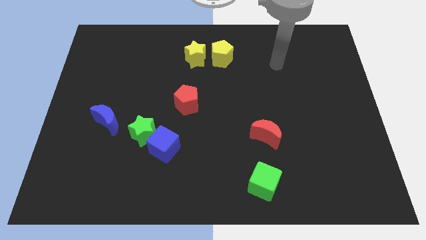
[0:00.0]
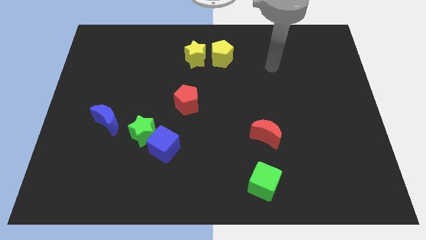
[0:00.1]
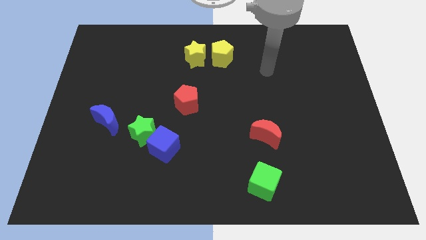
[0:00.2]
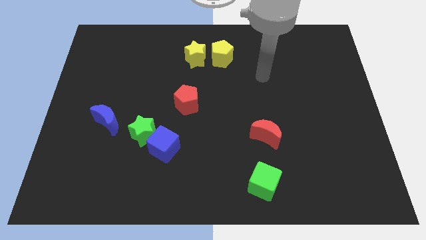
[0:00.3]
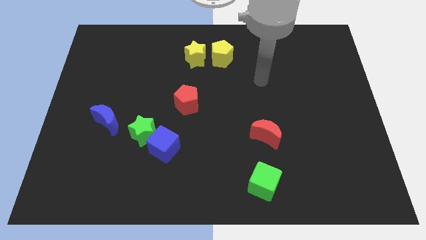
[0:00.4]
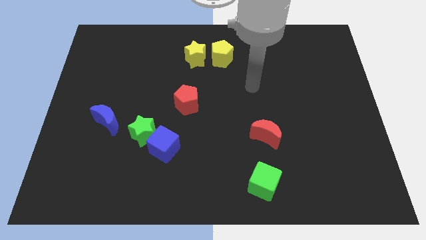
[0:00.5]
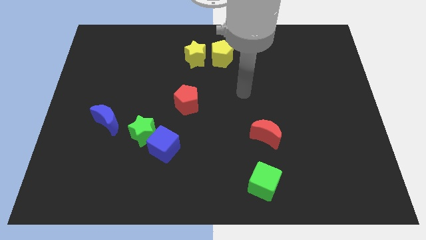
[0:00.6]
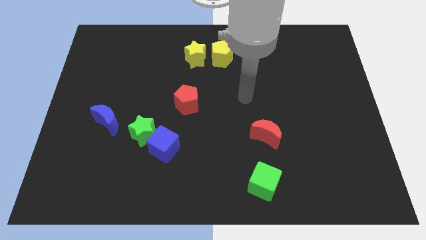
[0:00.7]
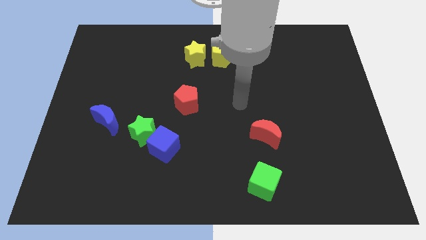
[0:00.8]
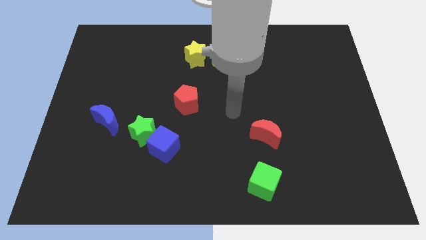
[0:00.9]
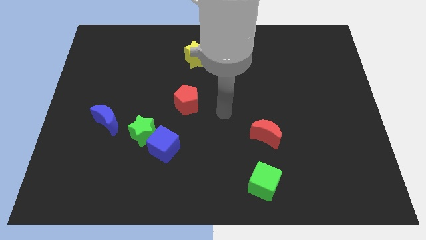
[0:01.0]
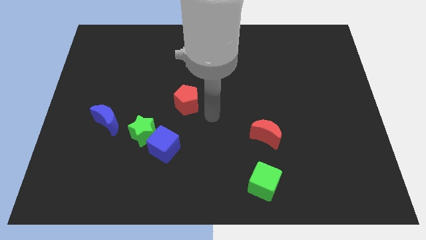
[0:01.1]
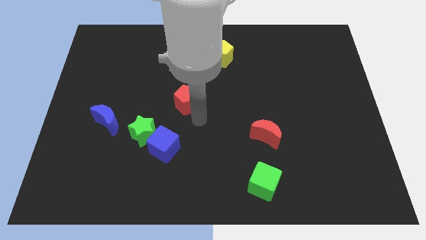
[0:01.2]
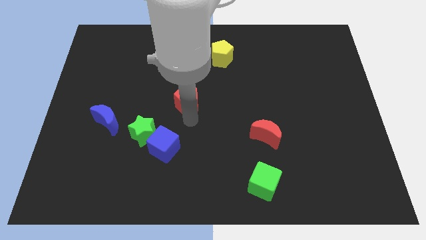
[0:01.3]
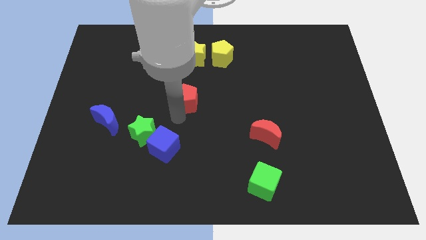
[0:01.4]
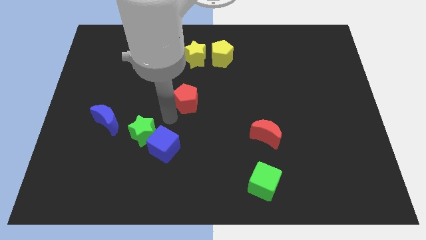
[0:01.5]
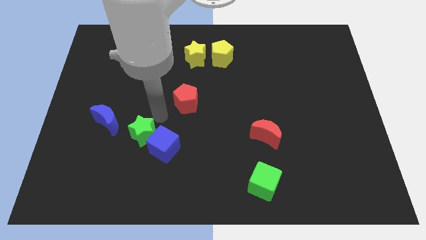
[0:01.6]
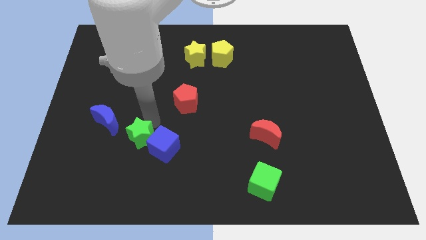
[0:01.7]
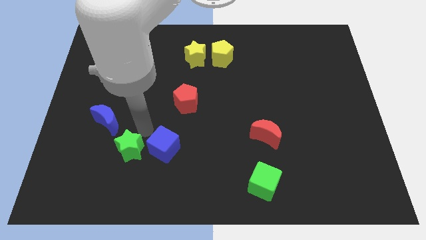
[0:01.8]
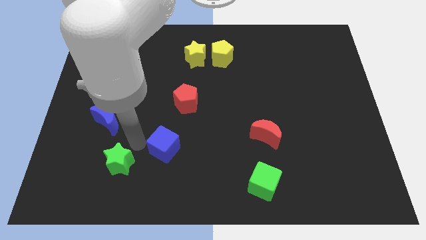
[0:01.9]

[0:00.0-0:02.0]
pull the blue cube apart from the green star

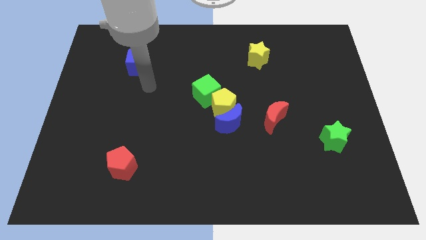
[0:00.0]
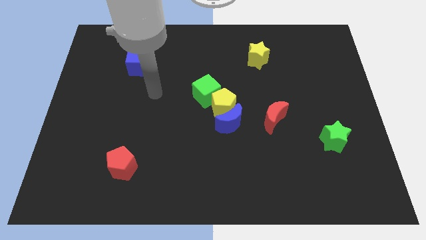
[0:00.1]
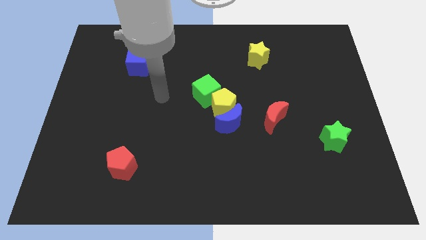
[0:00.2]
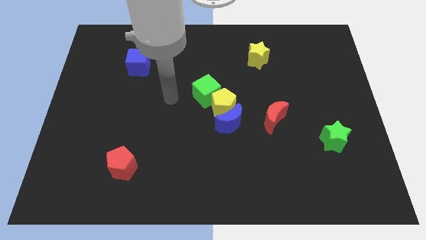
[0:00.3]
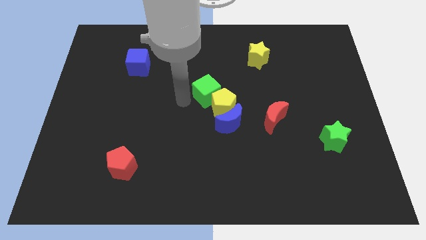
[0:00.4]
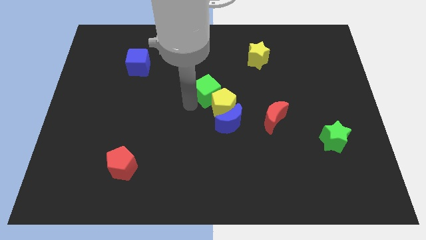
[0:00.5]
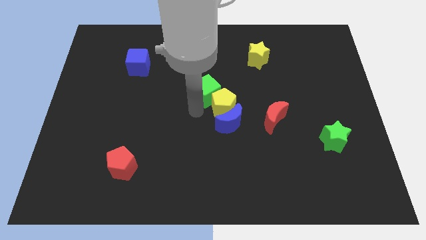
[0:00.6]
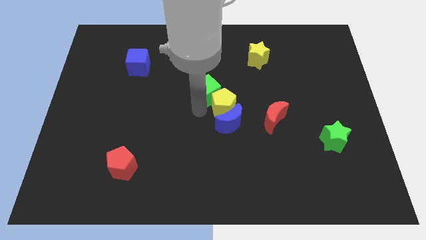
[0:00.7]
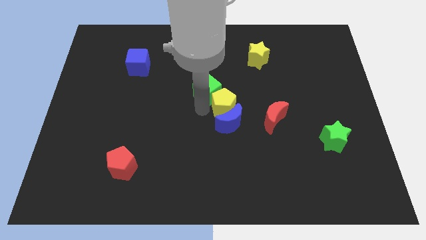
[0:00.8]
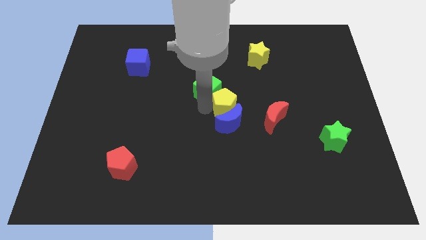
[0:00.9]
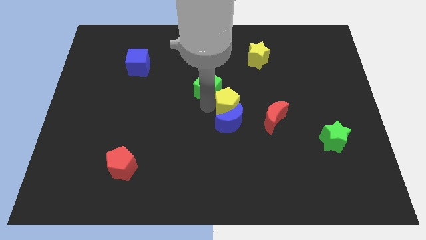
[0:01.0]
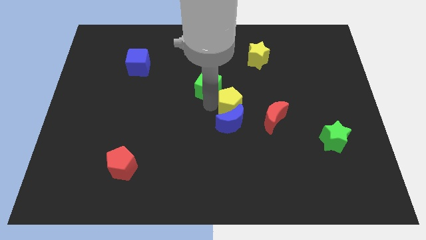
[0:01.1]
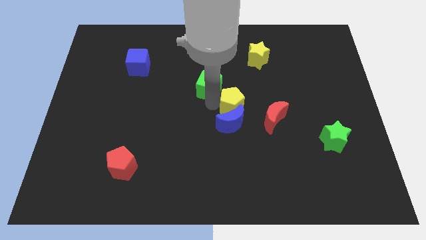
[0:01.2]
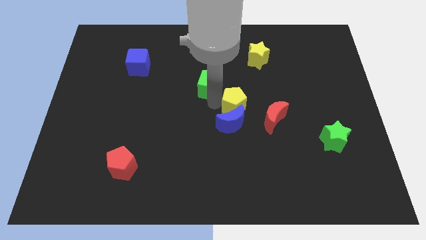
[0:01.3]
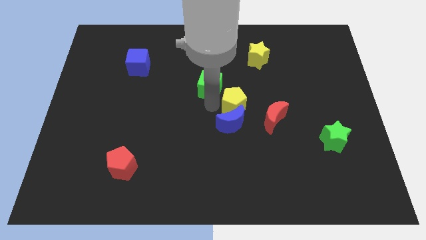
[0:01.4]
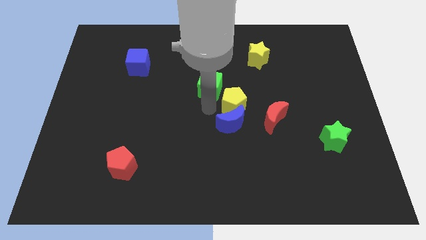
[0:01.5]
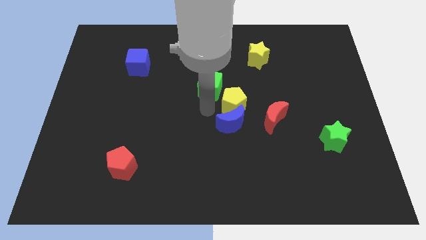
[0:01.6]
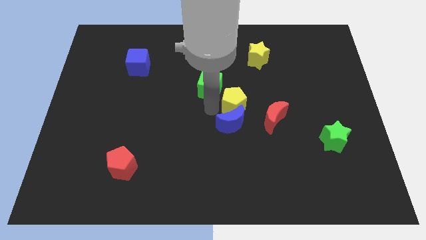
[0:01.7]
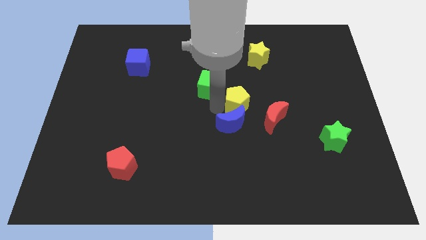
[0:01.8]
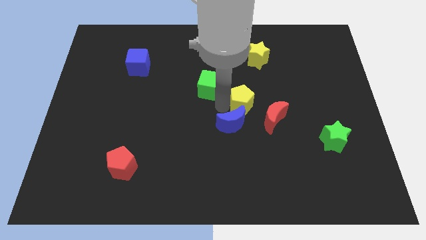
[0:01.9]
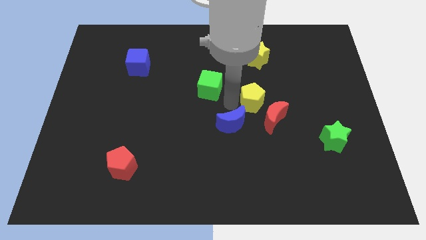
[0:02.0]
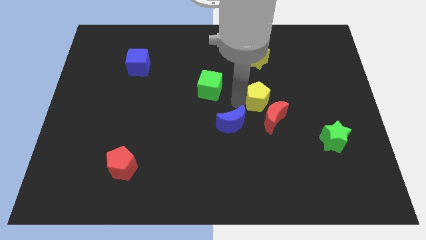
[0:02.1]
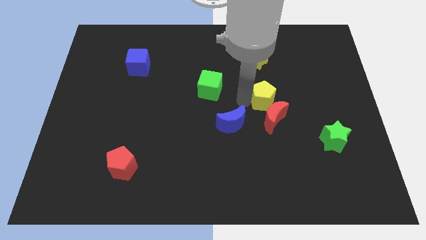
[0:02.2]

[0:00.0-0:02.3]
pull the yellow pentagon apart from the blue moon and green cube

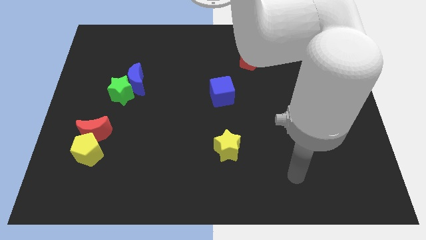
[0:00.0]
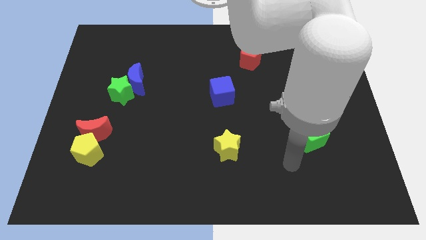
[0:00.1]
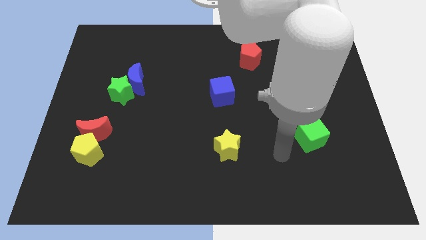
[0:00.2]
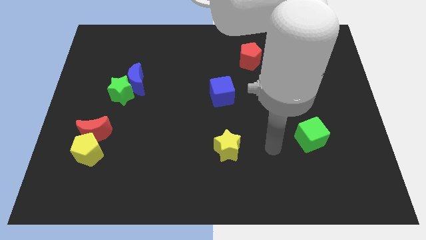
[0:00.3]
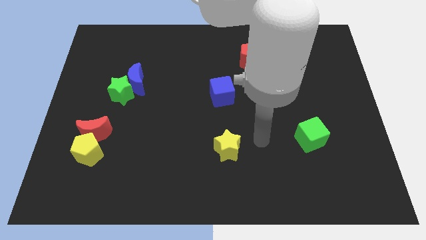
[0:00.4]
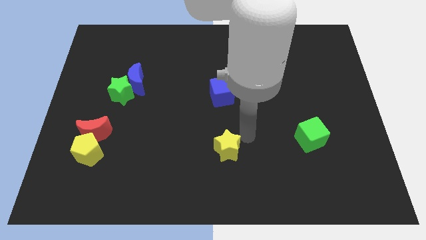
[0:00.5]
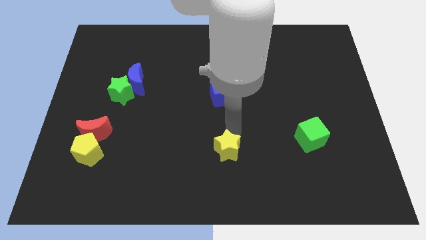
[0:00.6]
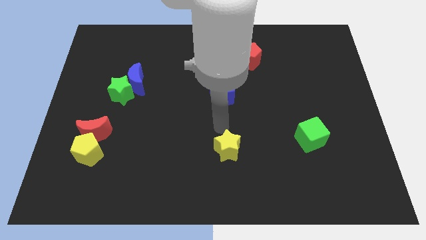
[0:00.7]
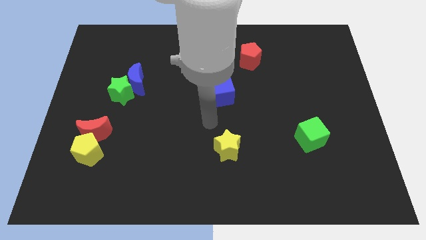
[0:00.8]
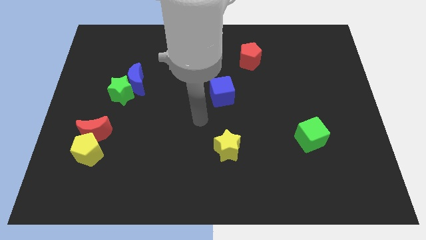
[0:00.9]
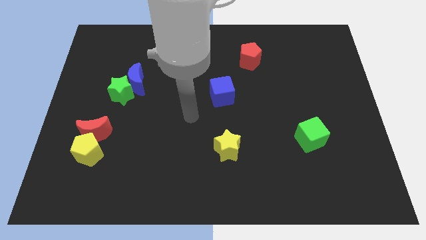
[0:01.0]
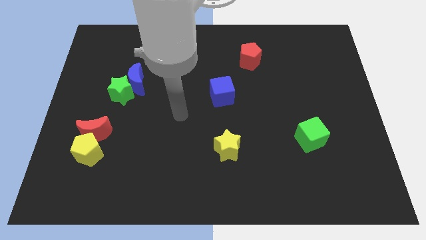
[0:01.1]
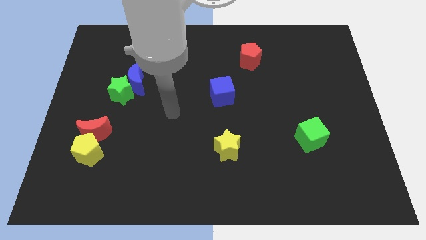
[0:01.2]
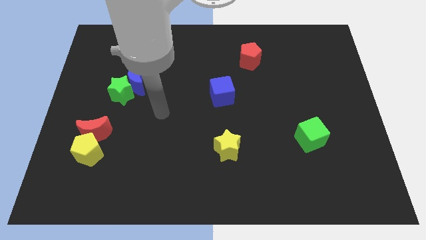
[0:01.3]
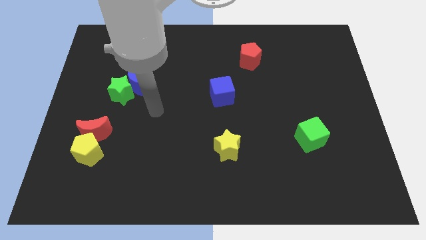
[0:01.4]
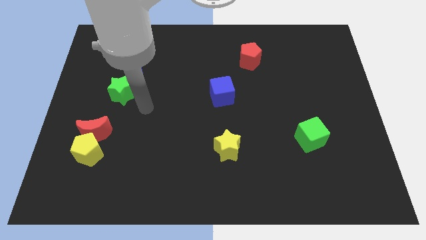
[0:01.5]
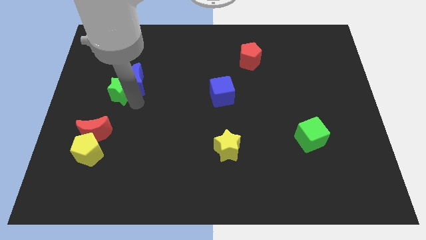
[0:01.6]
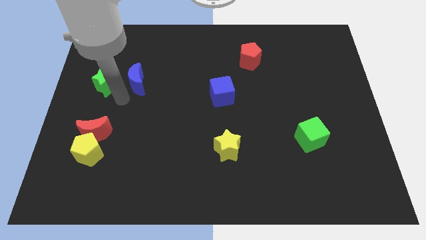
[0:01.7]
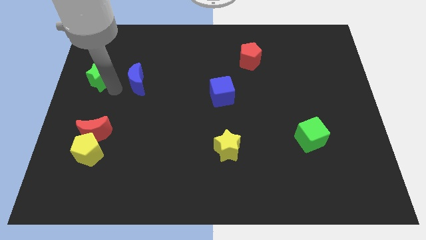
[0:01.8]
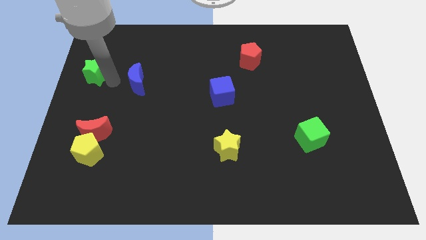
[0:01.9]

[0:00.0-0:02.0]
pull the blue moon apart from the green star

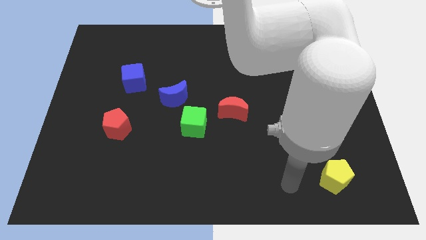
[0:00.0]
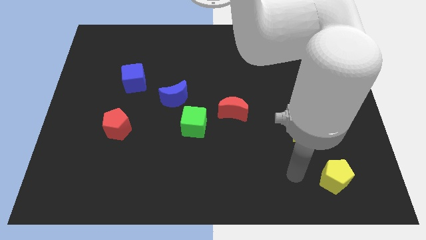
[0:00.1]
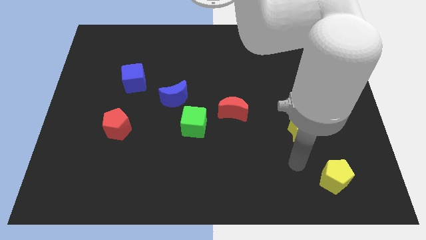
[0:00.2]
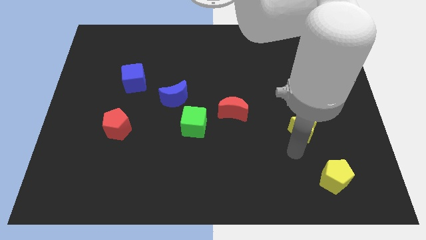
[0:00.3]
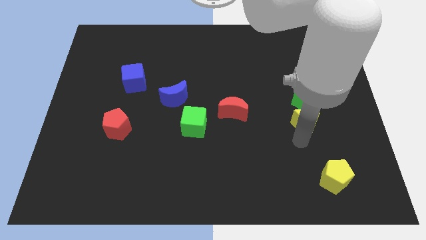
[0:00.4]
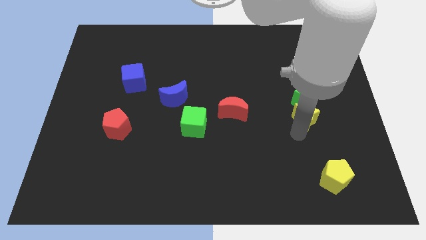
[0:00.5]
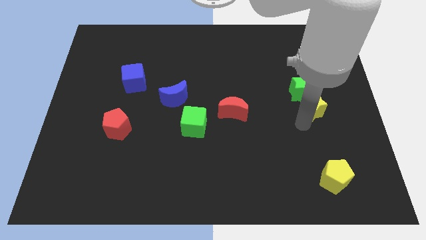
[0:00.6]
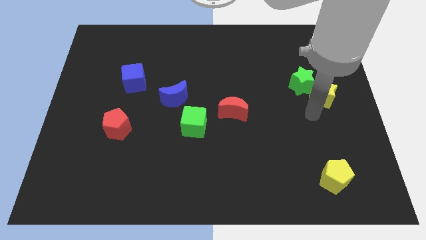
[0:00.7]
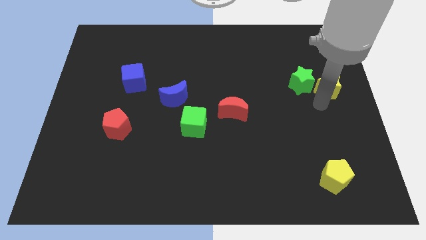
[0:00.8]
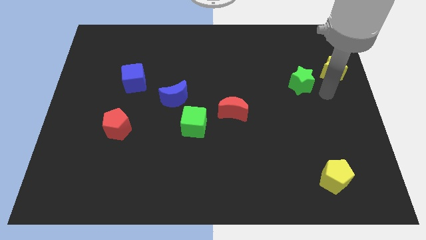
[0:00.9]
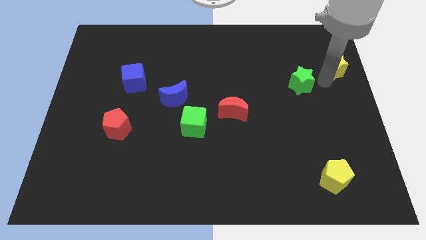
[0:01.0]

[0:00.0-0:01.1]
move the green star away from the yellow star

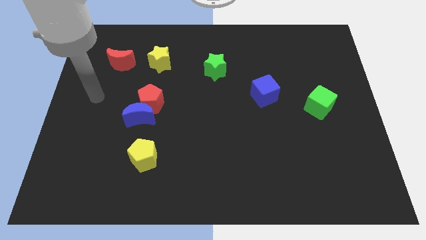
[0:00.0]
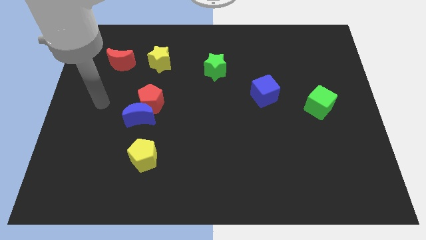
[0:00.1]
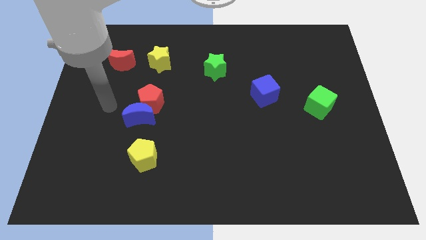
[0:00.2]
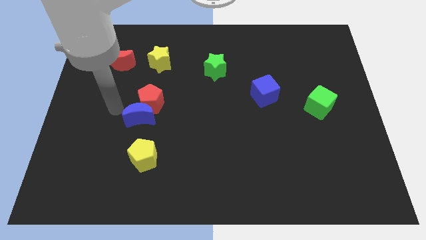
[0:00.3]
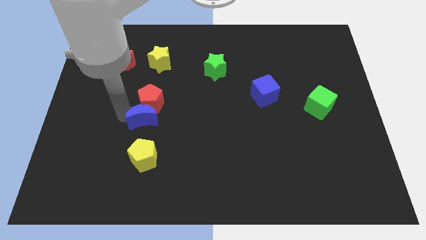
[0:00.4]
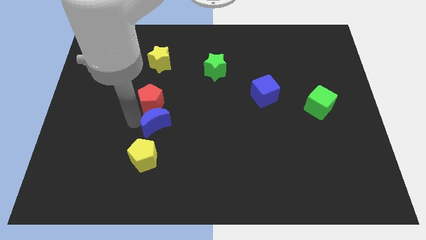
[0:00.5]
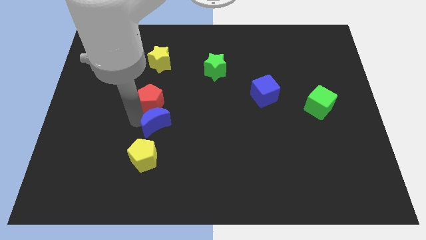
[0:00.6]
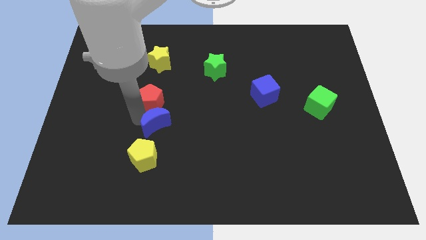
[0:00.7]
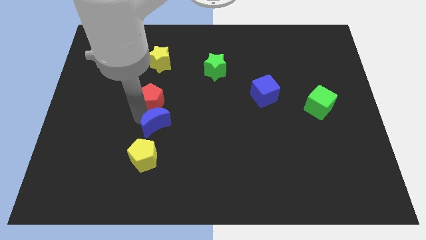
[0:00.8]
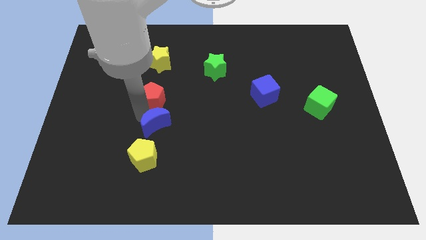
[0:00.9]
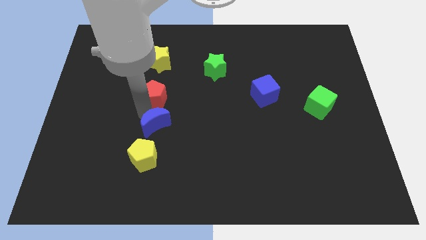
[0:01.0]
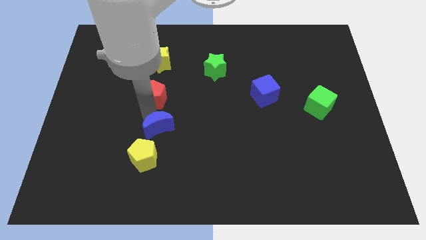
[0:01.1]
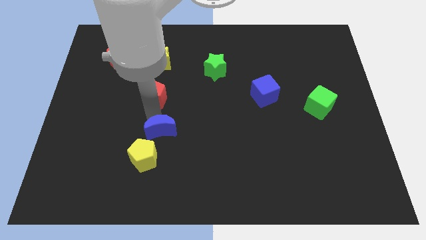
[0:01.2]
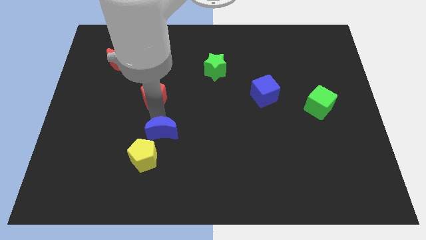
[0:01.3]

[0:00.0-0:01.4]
pull the red pentagon apart from the blue moon

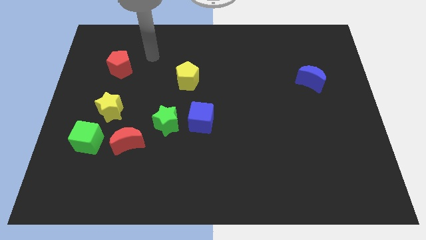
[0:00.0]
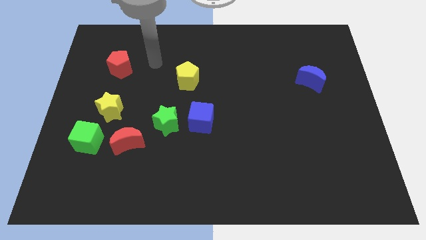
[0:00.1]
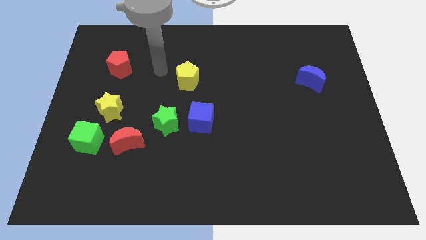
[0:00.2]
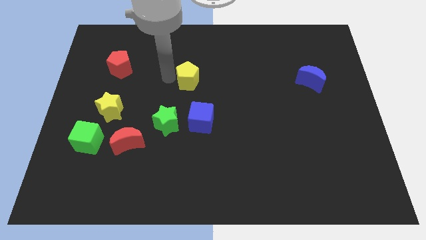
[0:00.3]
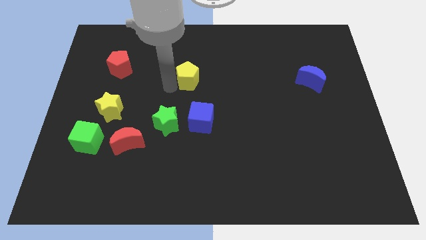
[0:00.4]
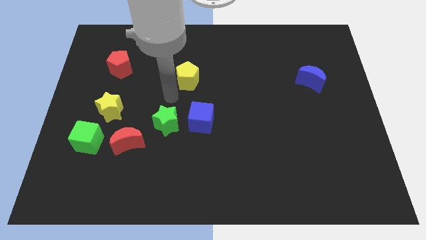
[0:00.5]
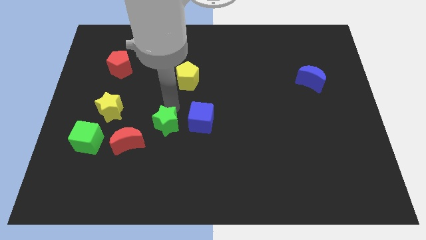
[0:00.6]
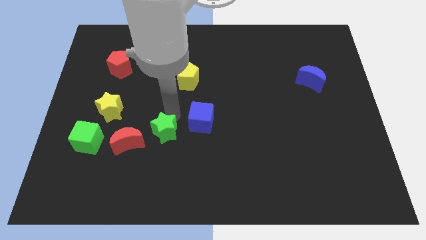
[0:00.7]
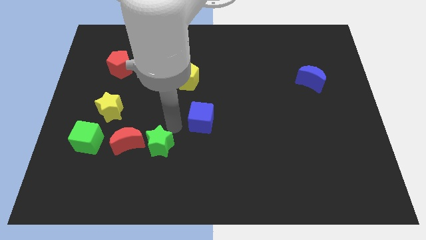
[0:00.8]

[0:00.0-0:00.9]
move the blue cube away from the green star
